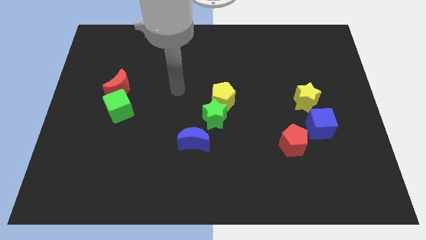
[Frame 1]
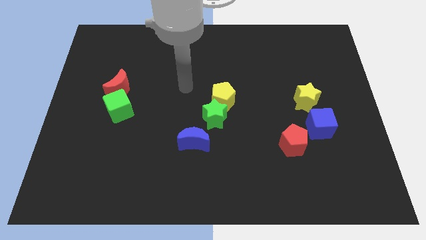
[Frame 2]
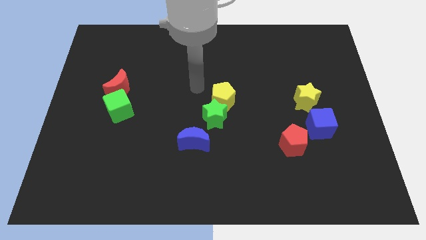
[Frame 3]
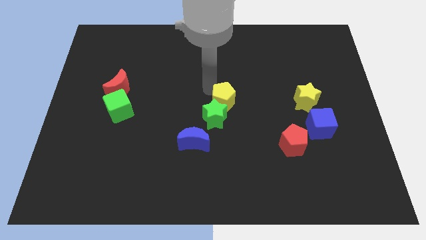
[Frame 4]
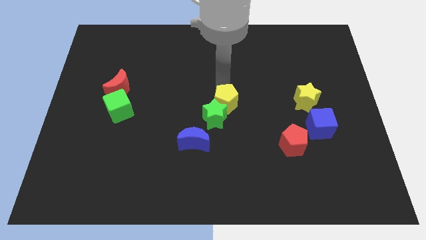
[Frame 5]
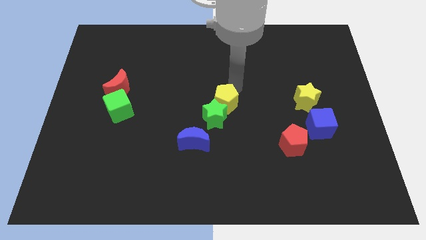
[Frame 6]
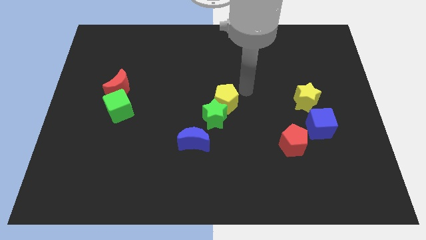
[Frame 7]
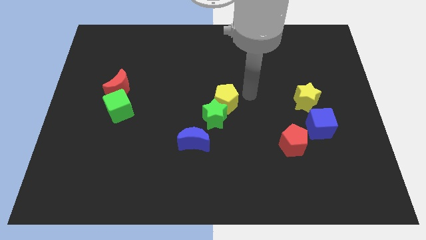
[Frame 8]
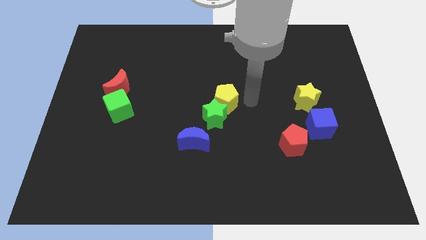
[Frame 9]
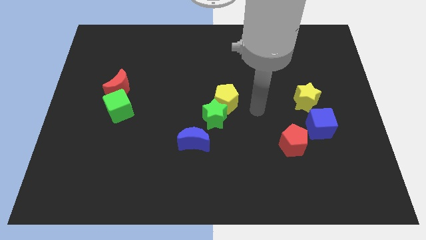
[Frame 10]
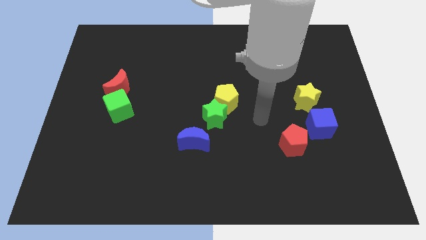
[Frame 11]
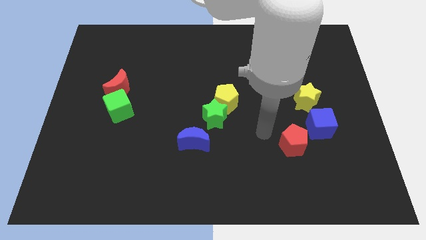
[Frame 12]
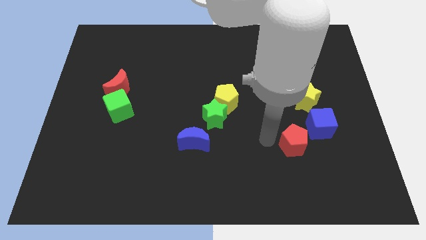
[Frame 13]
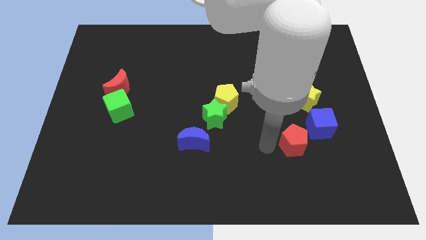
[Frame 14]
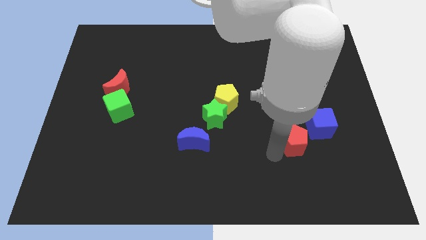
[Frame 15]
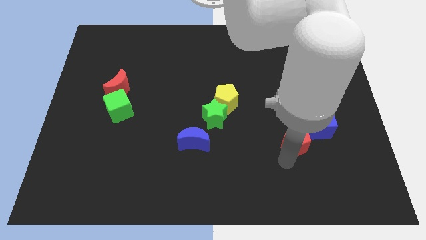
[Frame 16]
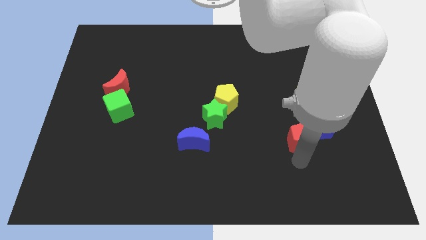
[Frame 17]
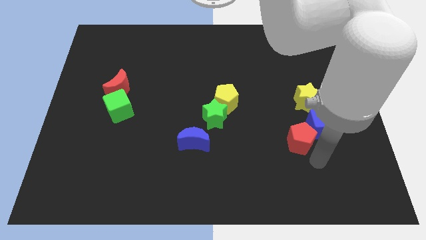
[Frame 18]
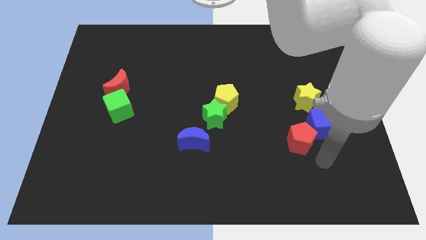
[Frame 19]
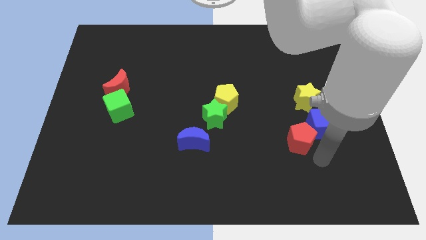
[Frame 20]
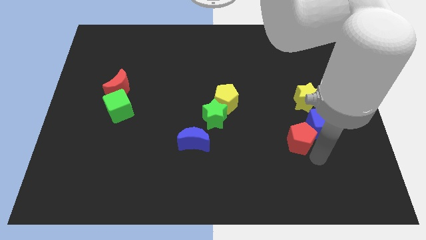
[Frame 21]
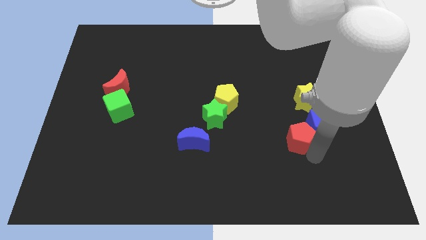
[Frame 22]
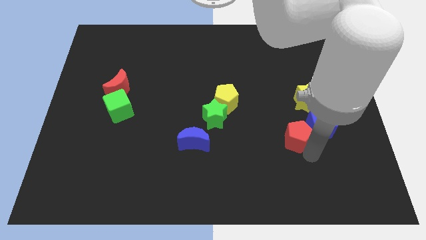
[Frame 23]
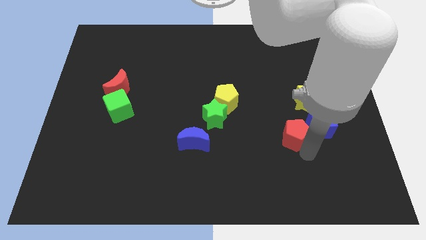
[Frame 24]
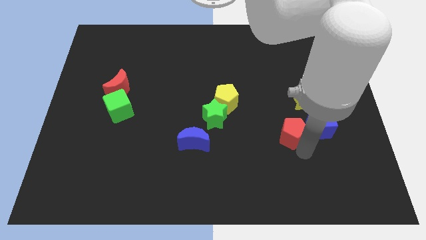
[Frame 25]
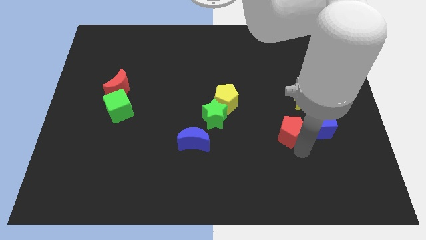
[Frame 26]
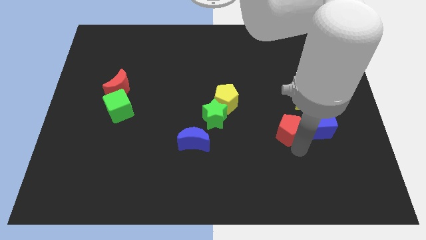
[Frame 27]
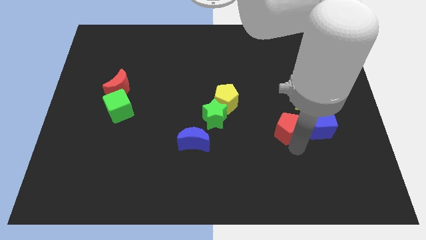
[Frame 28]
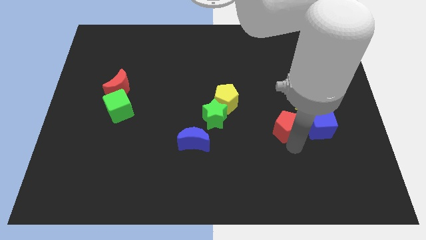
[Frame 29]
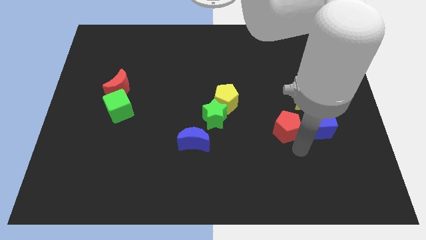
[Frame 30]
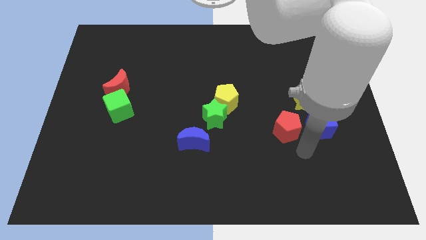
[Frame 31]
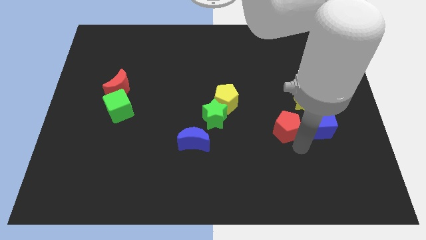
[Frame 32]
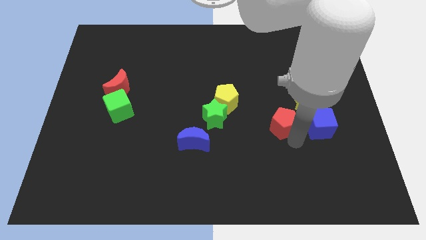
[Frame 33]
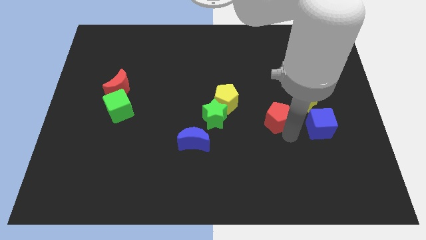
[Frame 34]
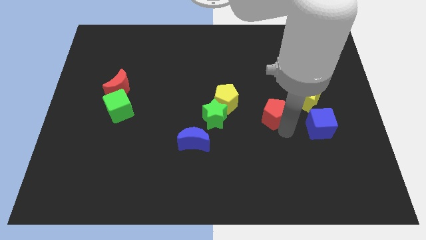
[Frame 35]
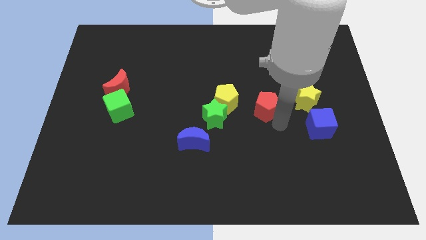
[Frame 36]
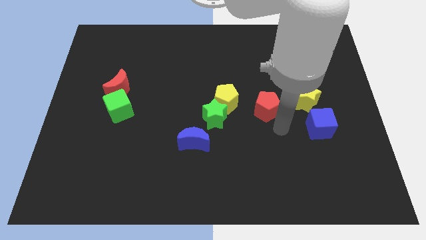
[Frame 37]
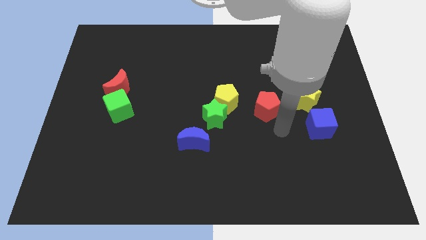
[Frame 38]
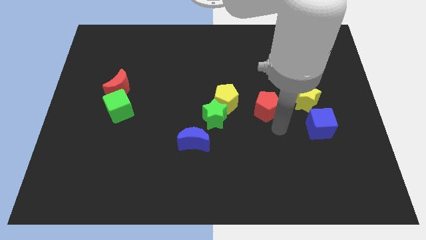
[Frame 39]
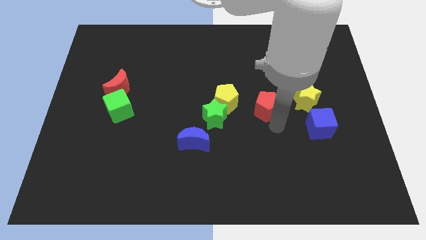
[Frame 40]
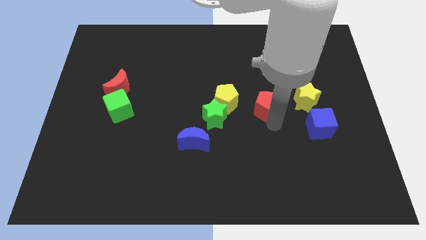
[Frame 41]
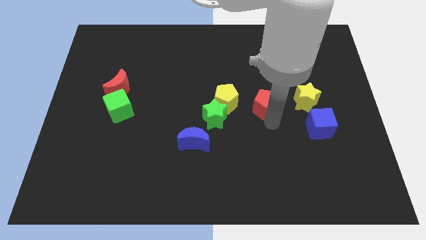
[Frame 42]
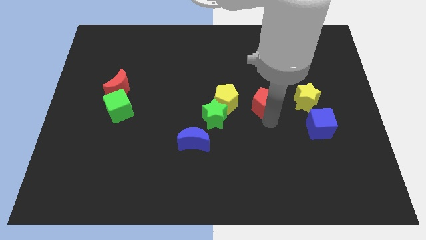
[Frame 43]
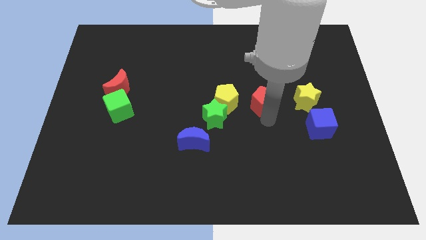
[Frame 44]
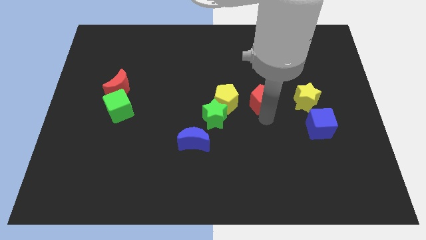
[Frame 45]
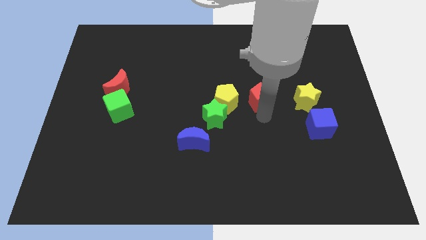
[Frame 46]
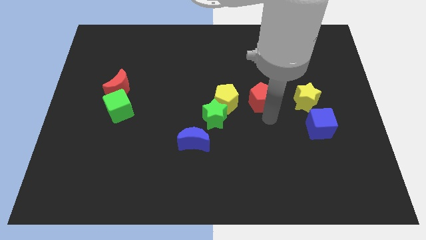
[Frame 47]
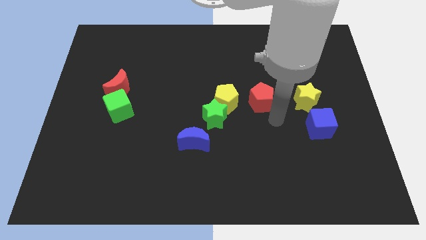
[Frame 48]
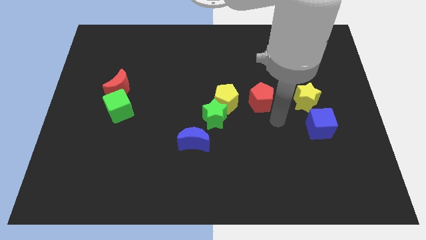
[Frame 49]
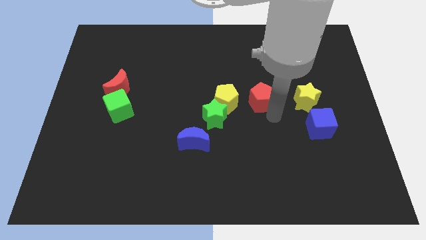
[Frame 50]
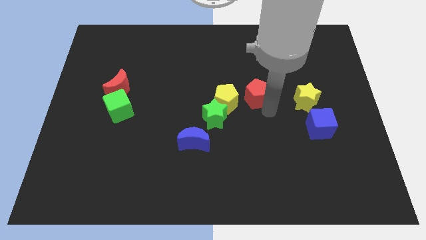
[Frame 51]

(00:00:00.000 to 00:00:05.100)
slide the red pentagon diagonally up and to the right of the yellow pentagon

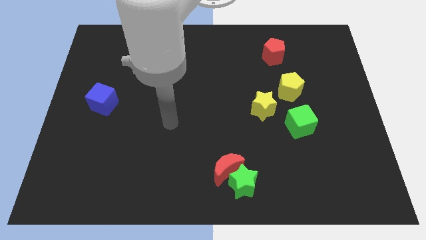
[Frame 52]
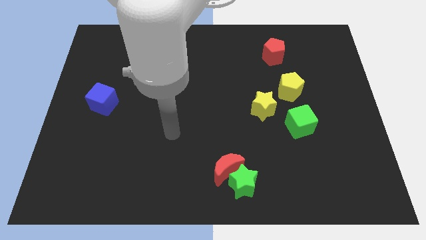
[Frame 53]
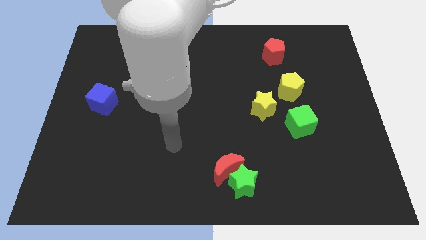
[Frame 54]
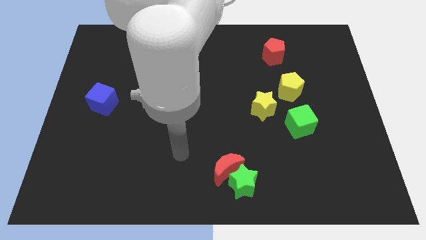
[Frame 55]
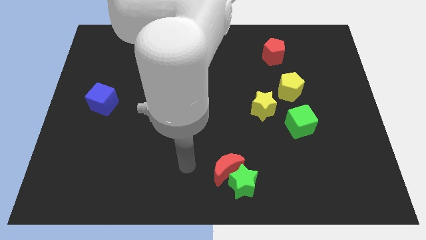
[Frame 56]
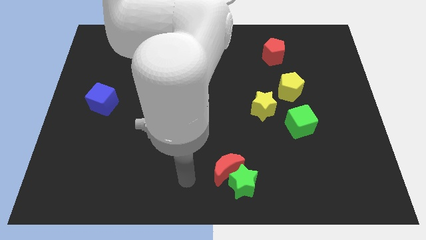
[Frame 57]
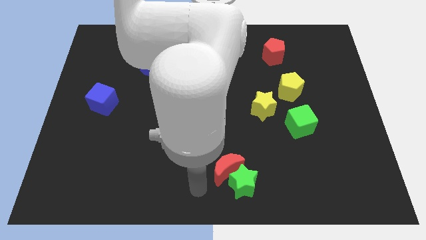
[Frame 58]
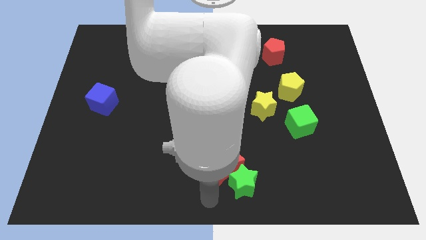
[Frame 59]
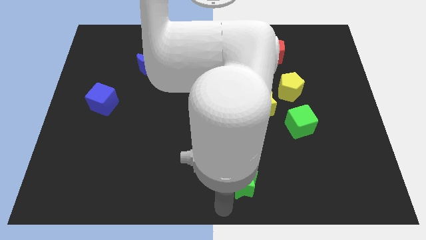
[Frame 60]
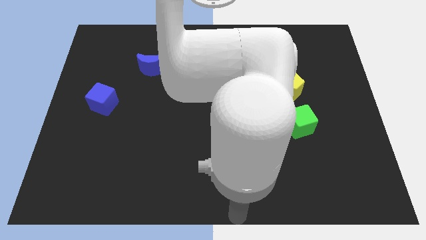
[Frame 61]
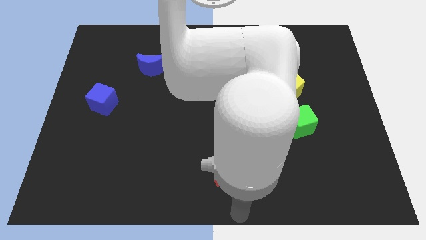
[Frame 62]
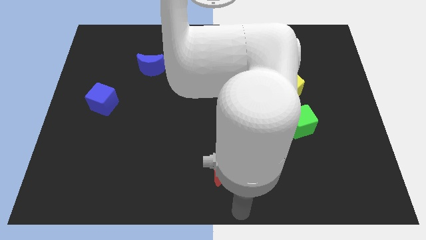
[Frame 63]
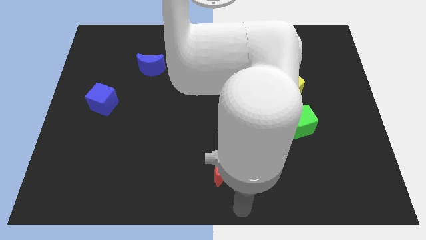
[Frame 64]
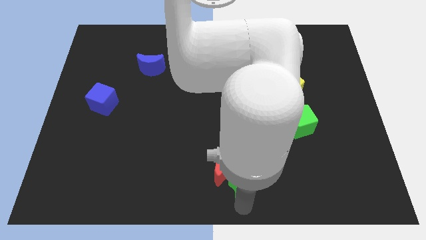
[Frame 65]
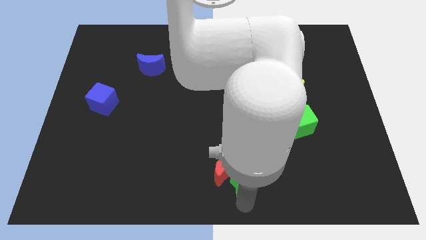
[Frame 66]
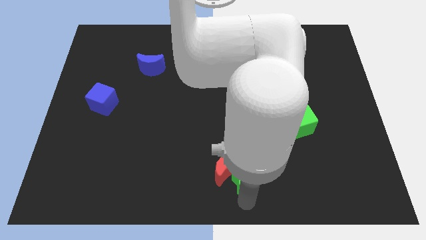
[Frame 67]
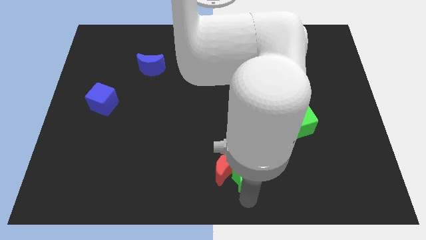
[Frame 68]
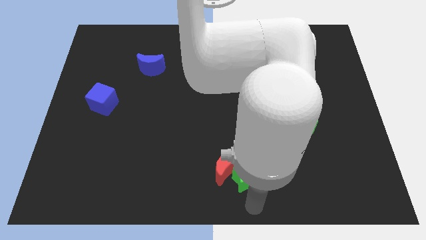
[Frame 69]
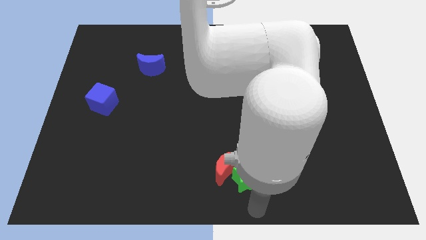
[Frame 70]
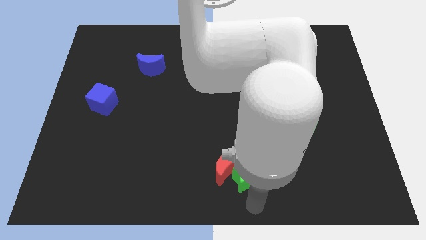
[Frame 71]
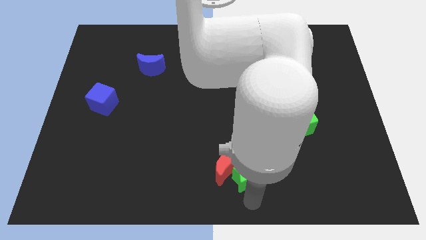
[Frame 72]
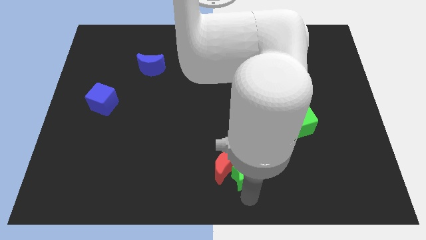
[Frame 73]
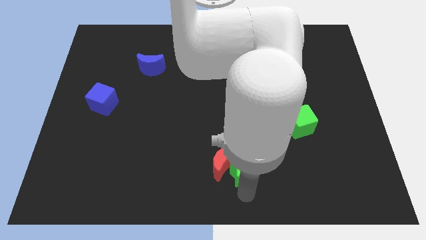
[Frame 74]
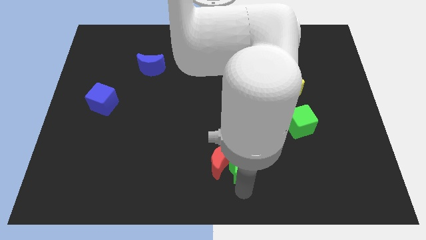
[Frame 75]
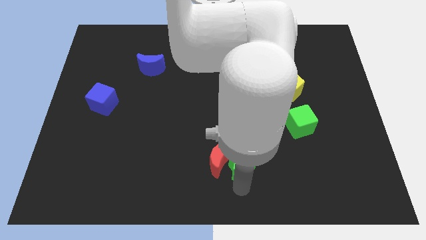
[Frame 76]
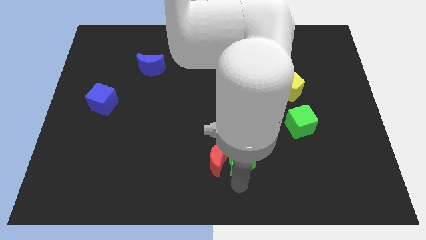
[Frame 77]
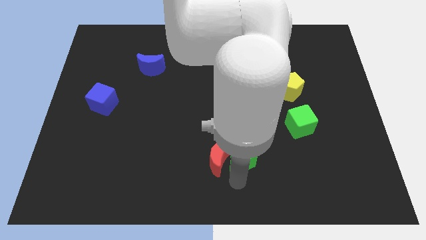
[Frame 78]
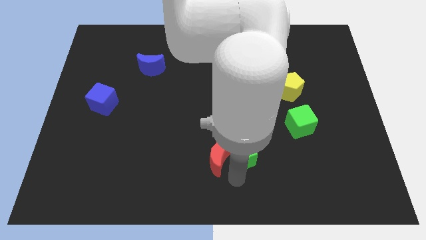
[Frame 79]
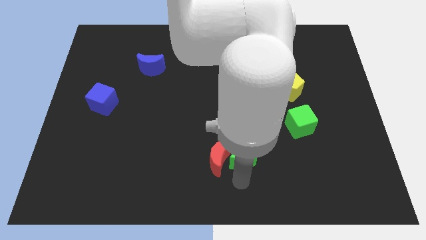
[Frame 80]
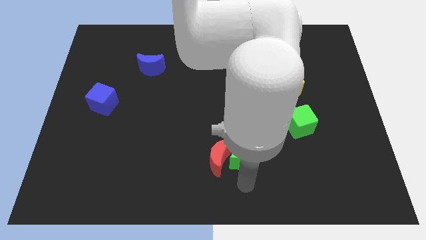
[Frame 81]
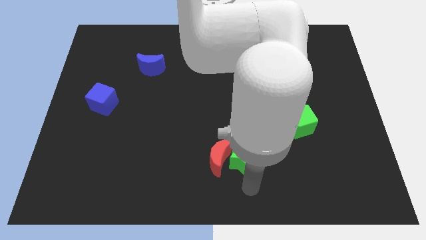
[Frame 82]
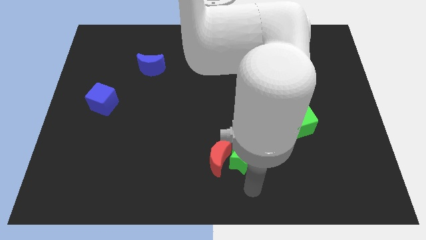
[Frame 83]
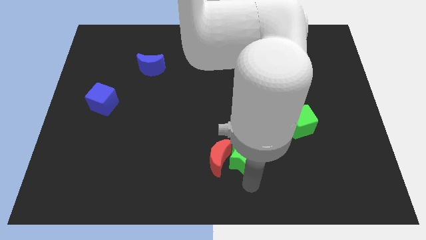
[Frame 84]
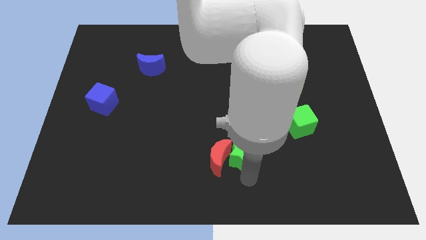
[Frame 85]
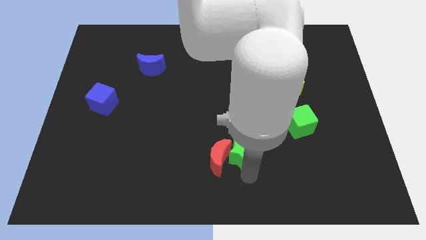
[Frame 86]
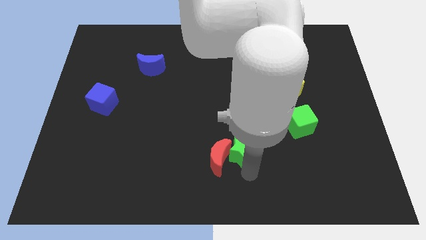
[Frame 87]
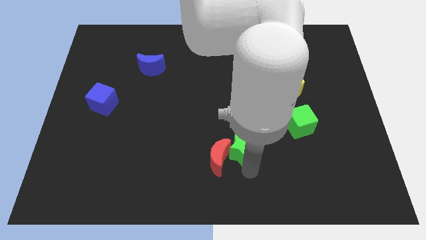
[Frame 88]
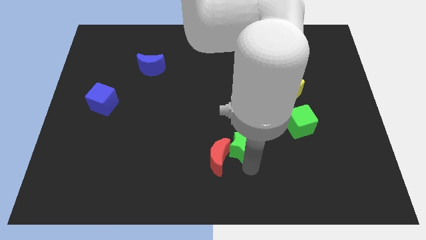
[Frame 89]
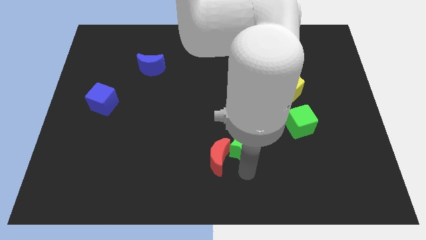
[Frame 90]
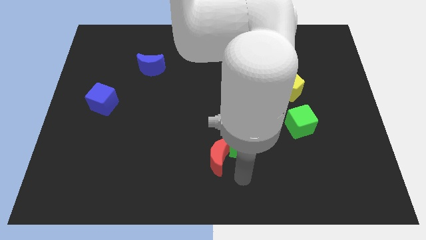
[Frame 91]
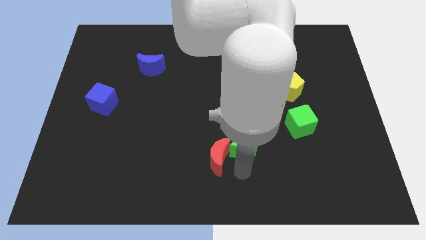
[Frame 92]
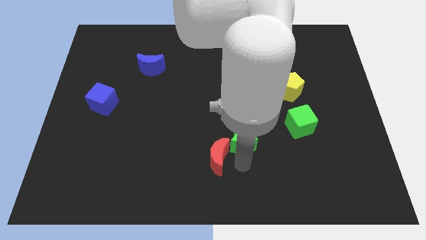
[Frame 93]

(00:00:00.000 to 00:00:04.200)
move the green star diagonally down and to the left of the yellow star
